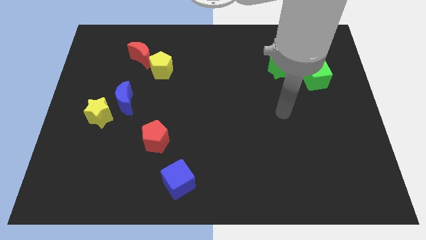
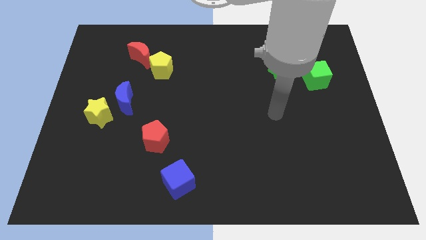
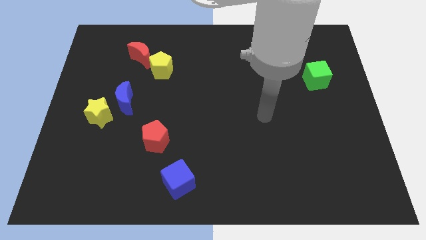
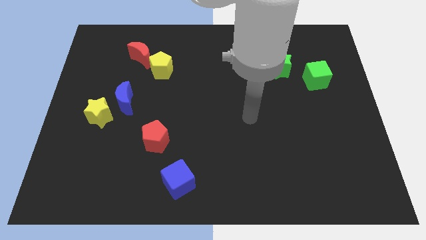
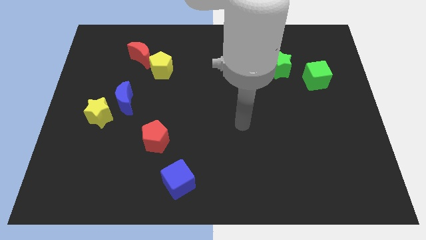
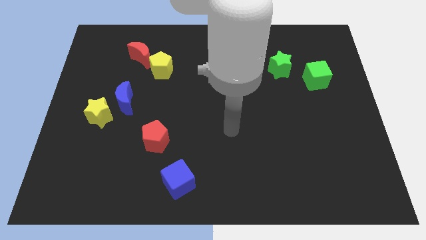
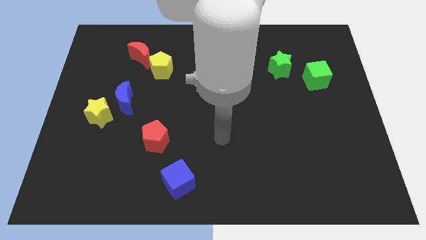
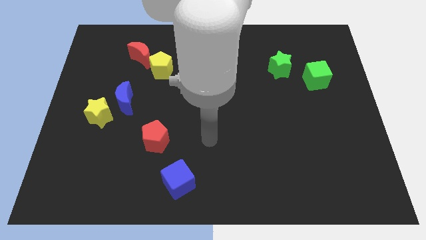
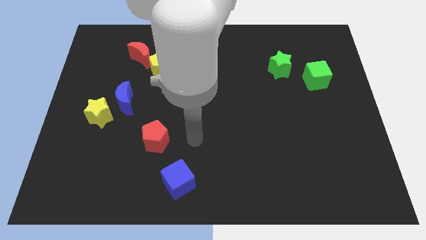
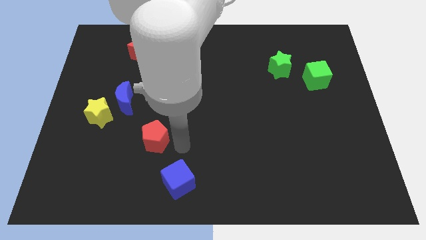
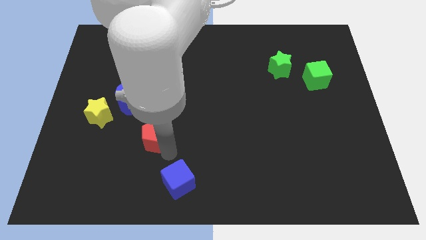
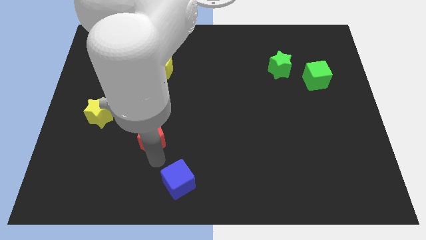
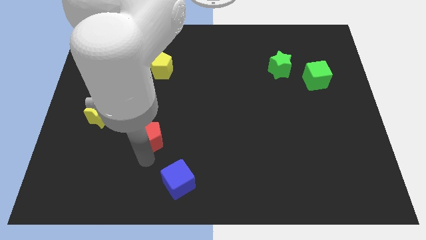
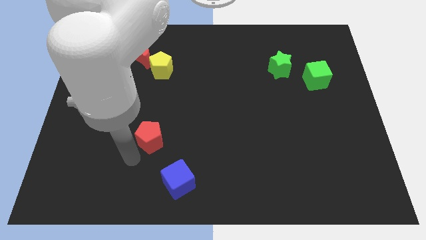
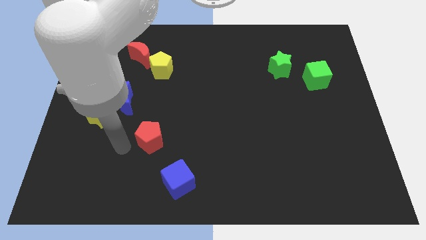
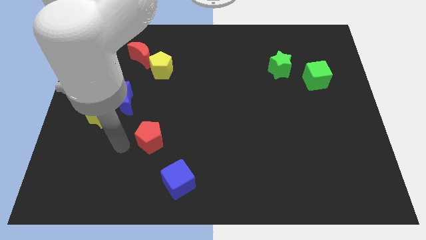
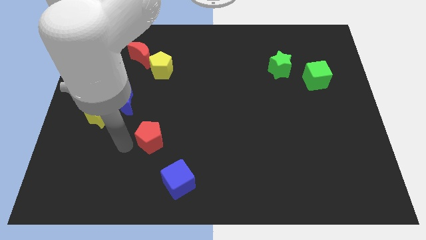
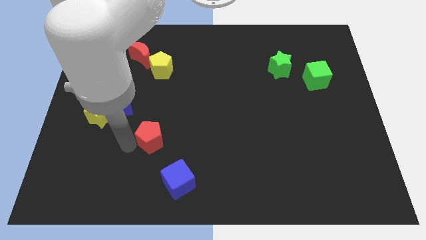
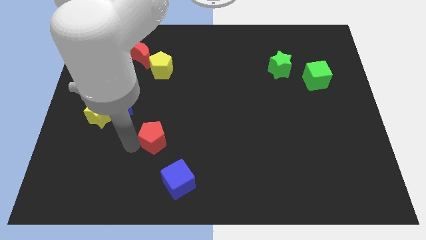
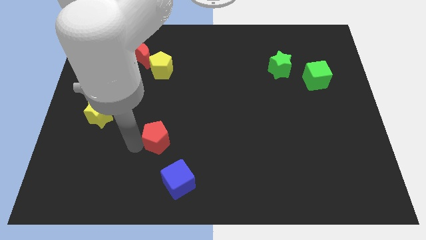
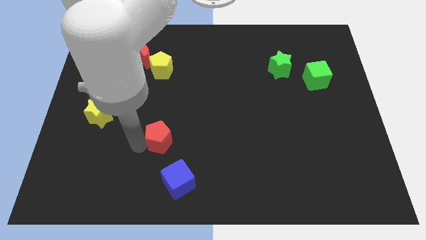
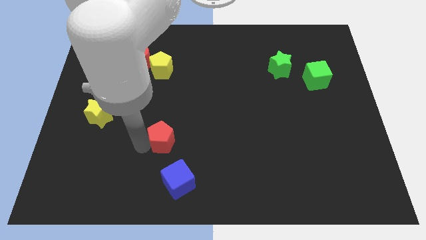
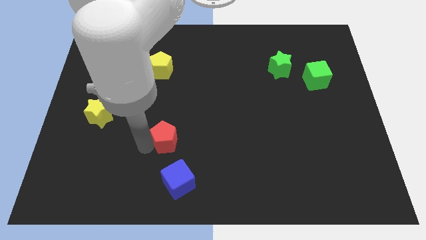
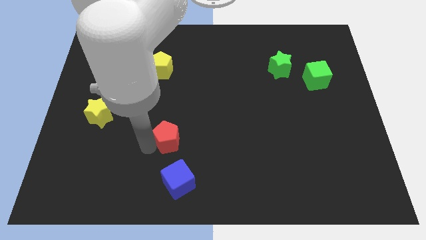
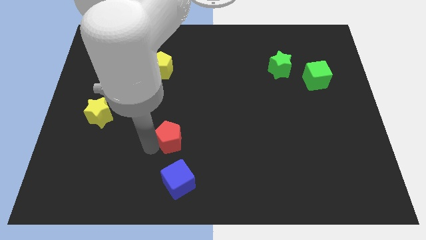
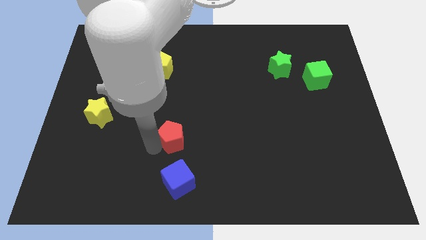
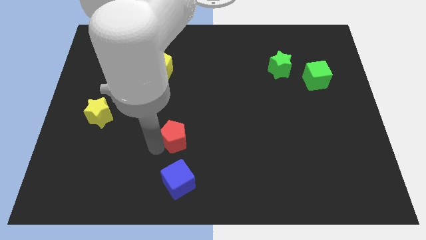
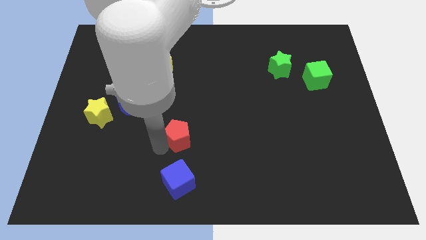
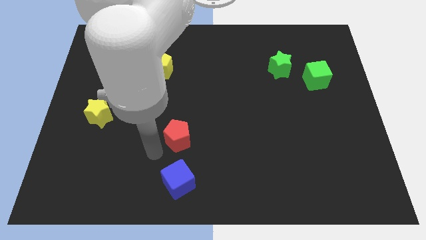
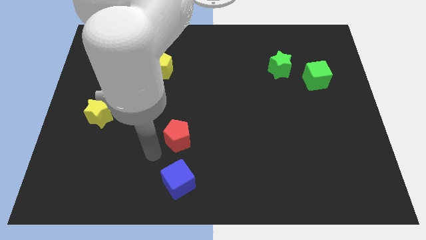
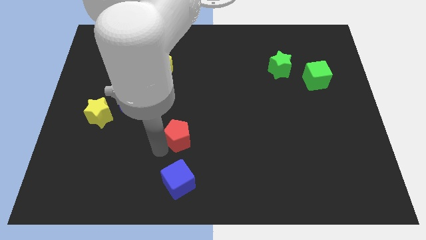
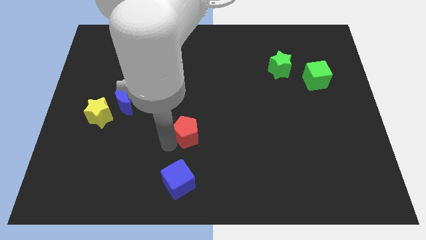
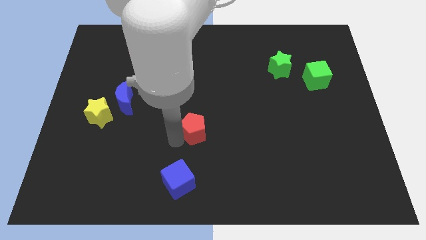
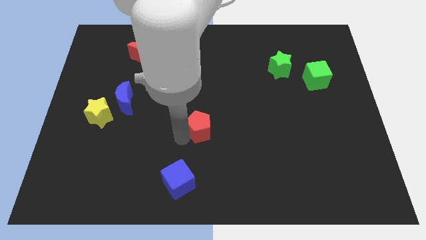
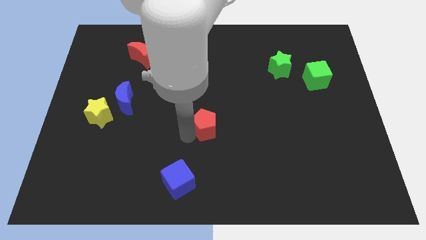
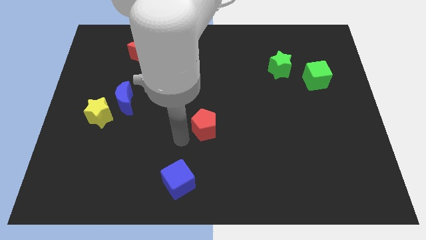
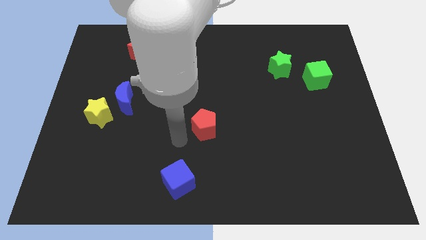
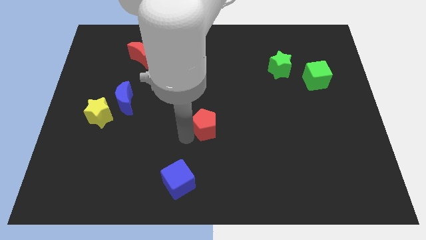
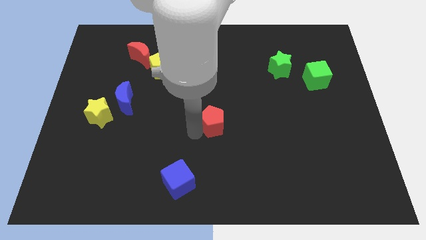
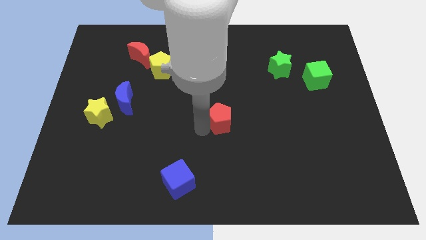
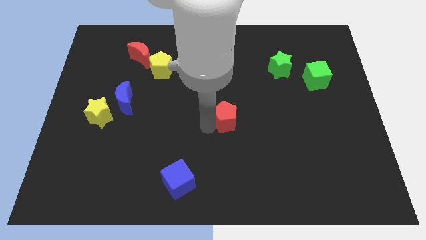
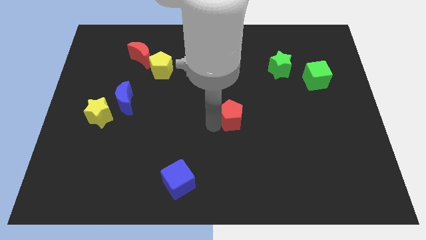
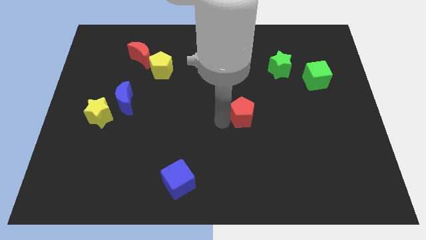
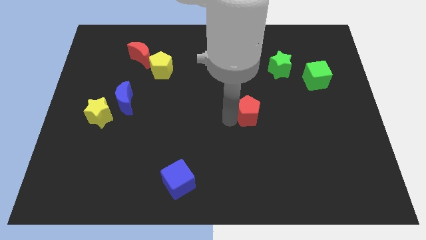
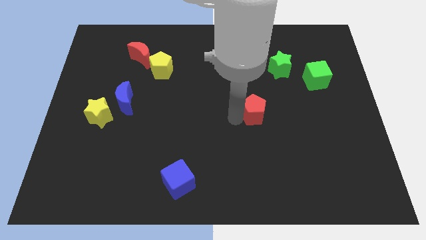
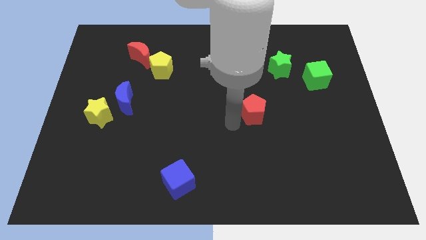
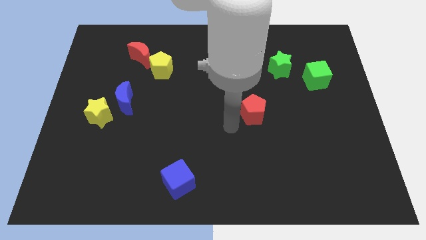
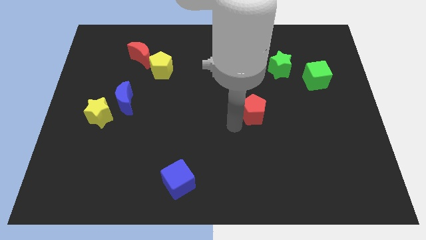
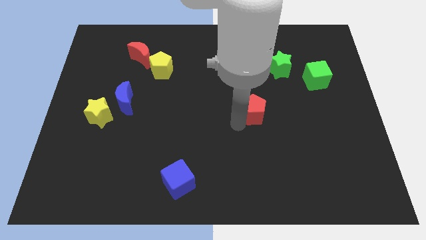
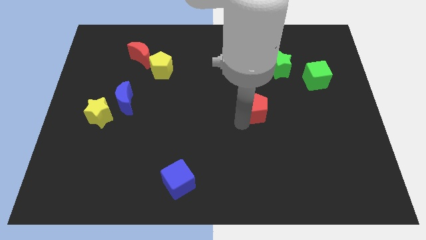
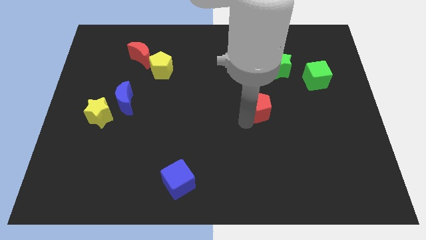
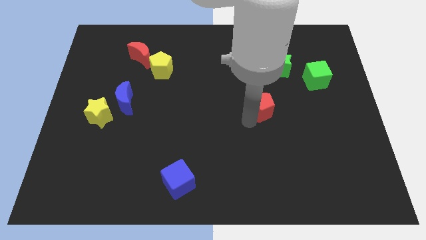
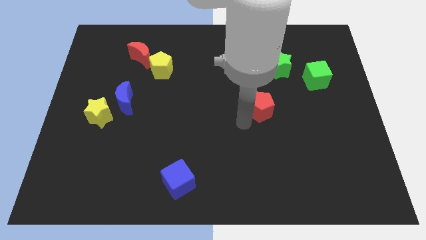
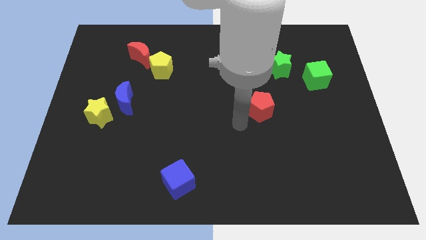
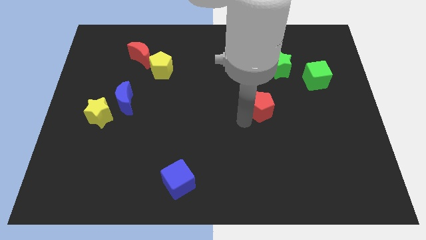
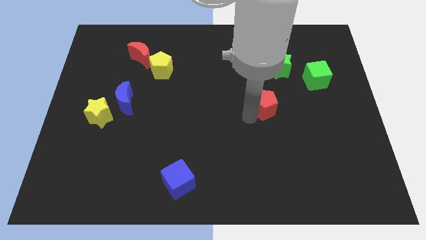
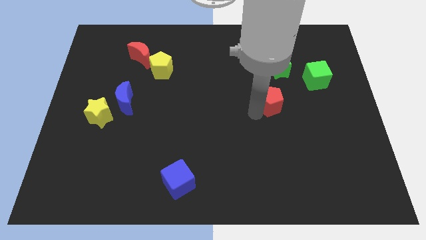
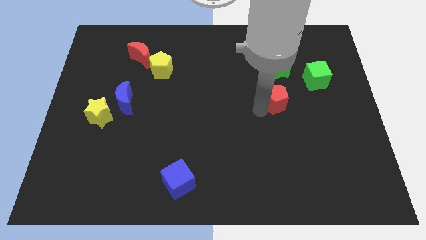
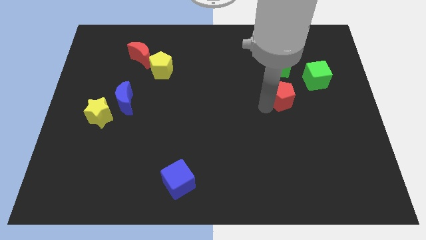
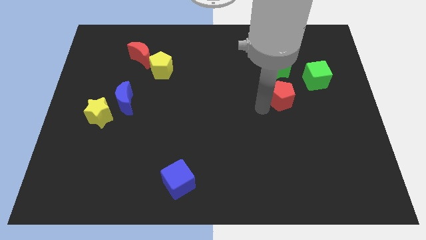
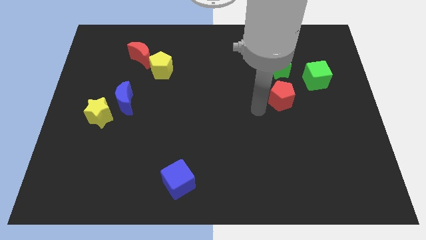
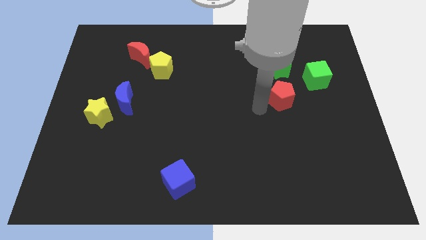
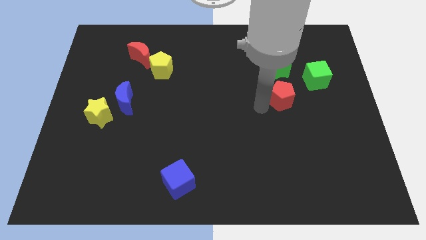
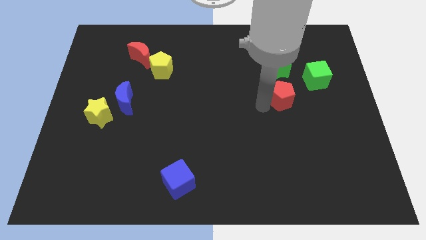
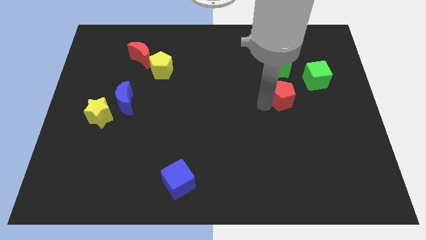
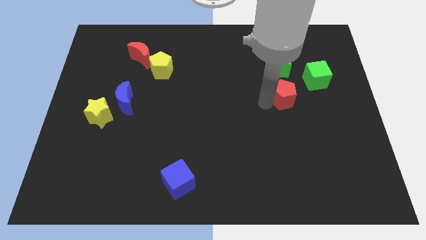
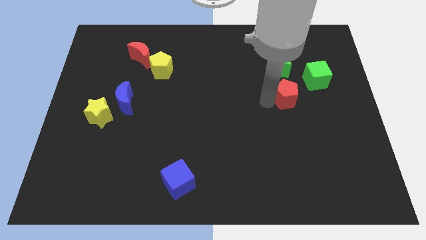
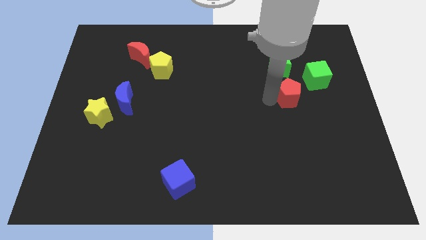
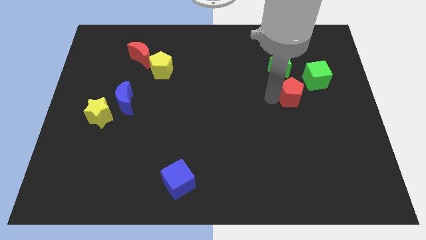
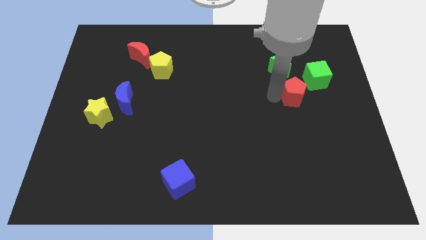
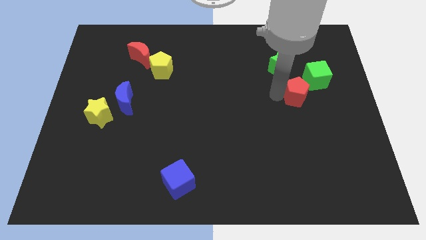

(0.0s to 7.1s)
push the red pentagon to the bottom right side of the green star
